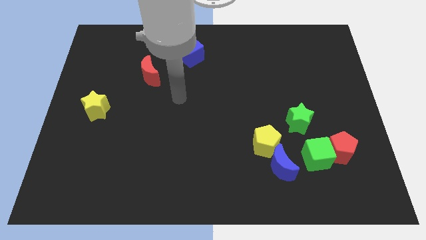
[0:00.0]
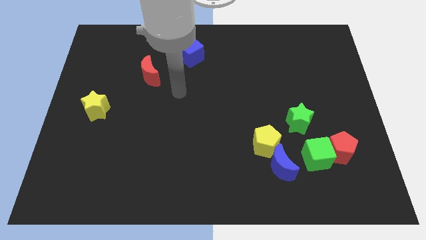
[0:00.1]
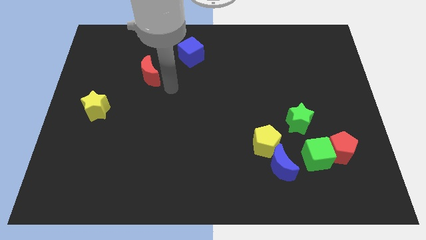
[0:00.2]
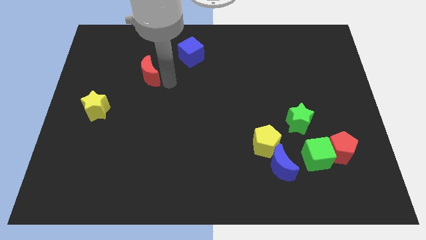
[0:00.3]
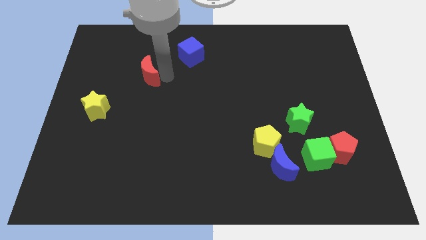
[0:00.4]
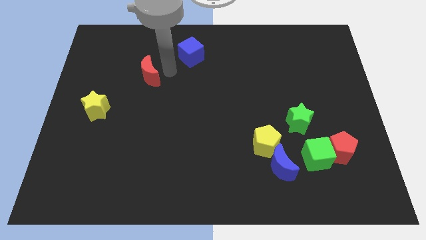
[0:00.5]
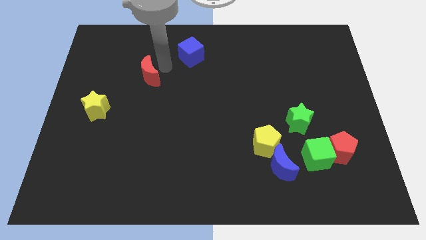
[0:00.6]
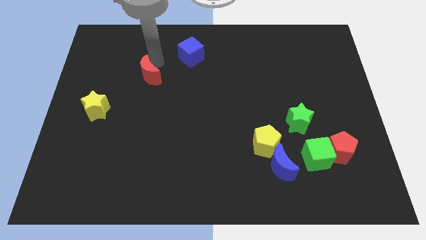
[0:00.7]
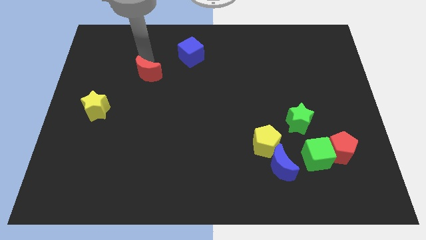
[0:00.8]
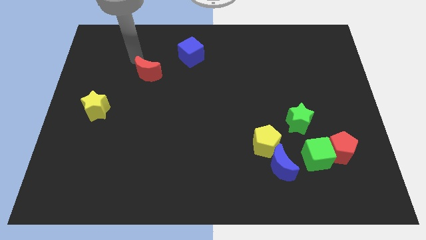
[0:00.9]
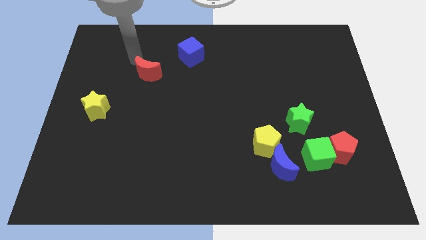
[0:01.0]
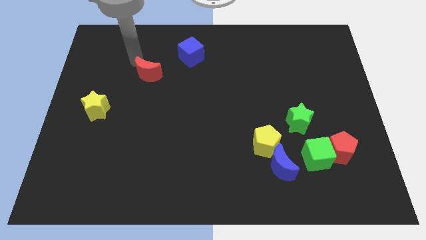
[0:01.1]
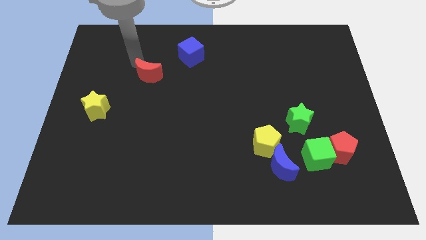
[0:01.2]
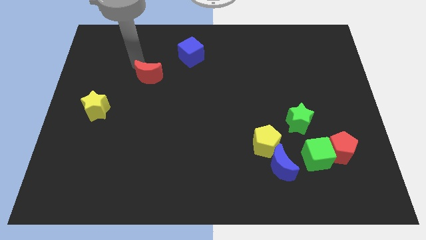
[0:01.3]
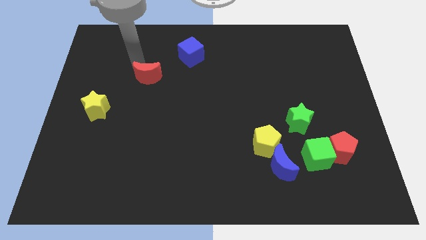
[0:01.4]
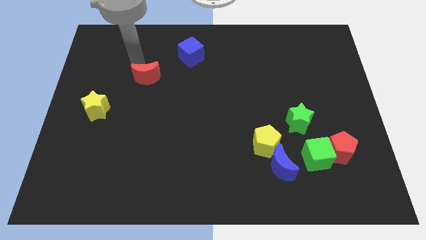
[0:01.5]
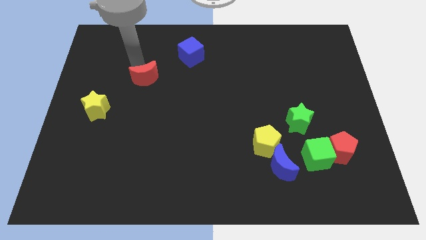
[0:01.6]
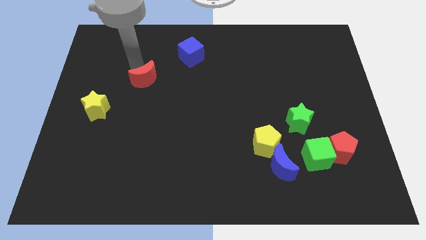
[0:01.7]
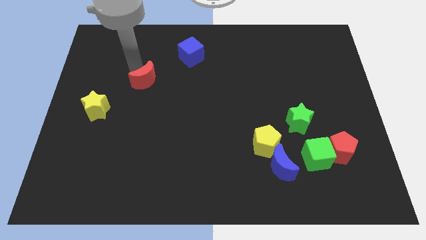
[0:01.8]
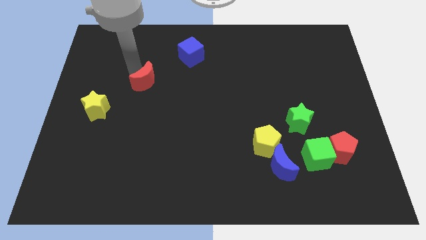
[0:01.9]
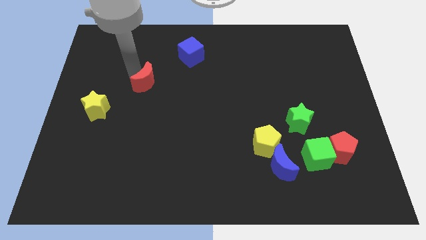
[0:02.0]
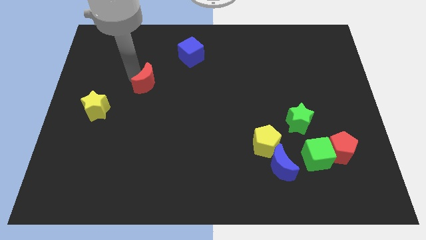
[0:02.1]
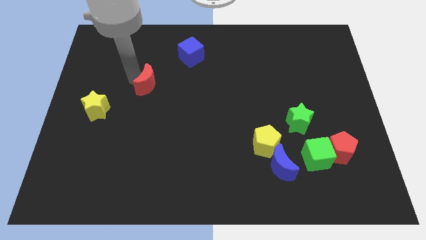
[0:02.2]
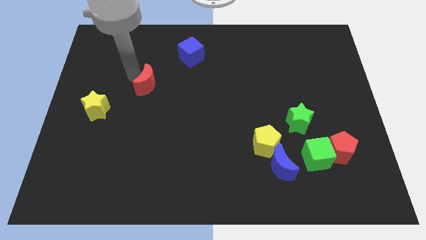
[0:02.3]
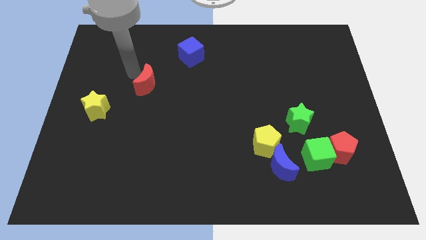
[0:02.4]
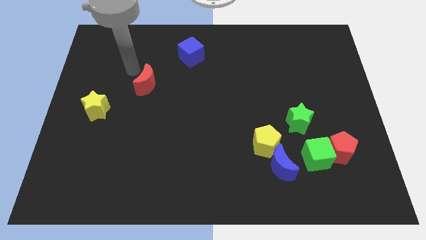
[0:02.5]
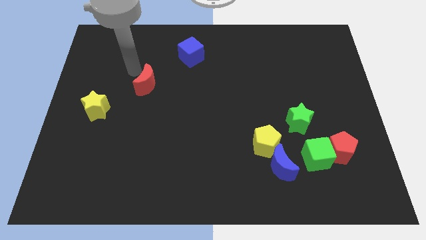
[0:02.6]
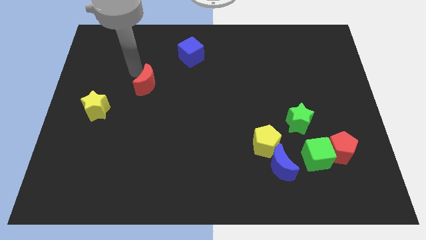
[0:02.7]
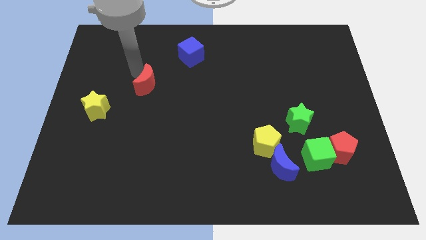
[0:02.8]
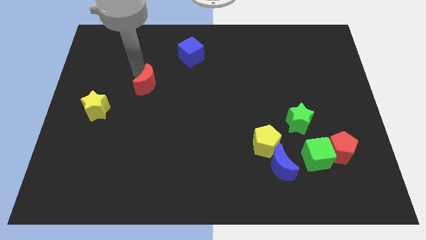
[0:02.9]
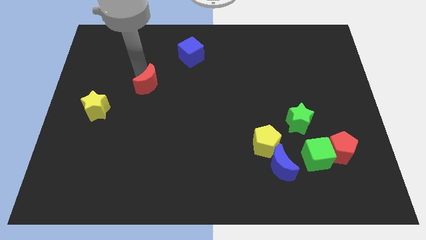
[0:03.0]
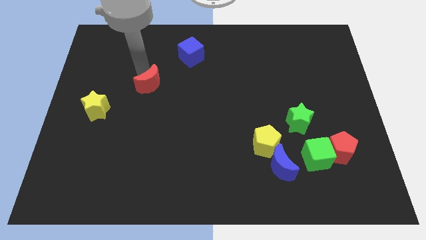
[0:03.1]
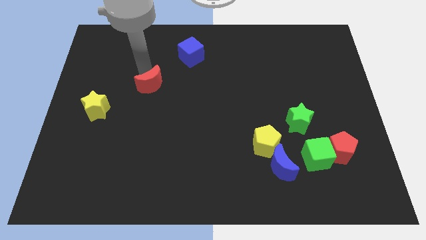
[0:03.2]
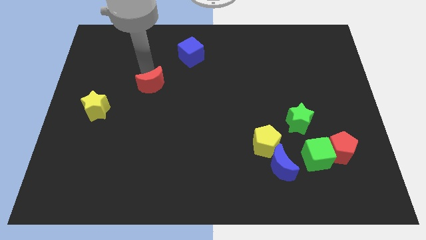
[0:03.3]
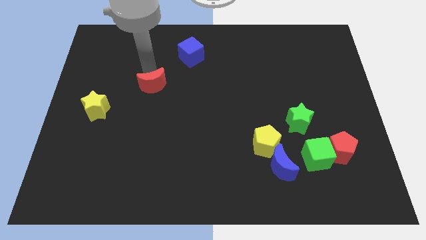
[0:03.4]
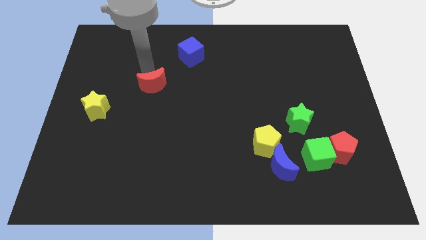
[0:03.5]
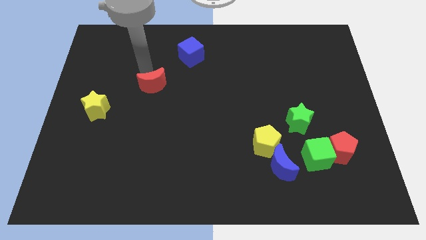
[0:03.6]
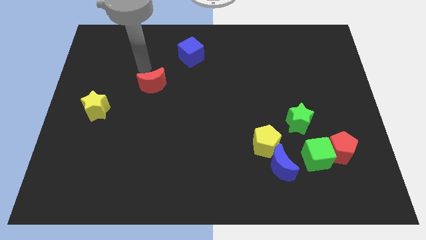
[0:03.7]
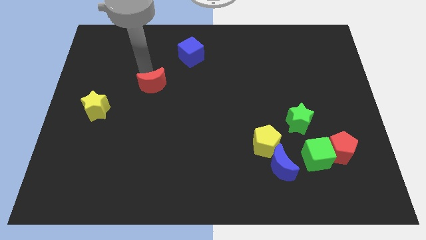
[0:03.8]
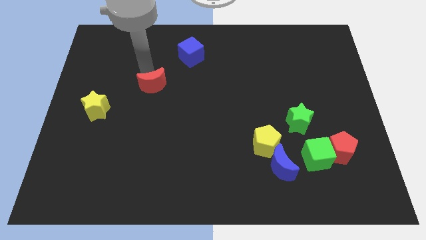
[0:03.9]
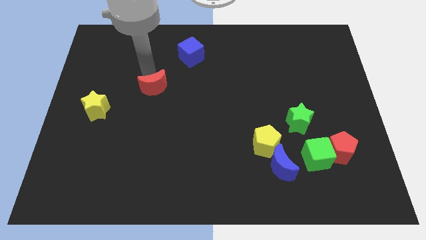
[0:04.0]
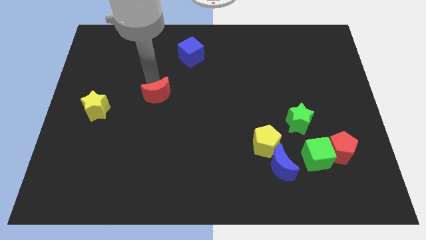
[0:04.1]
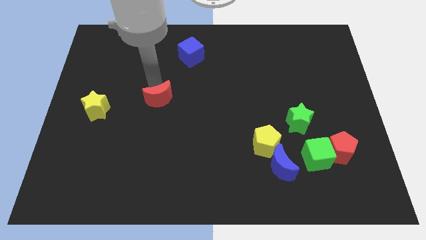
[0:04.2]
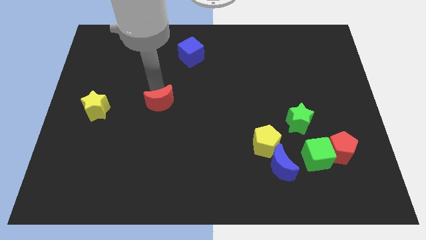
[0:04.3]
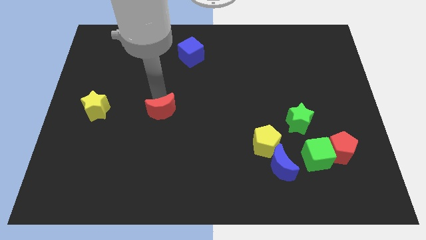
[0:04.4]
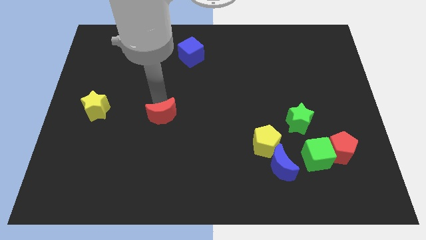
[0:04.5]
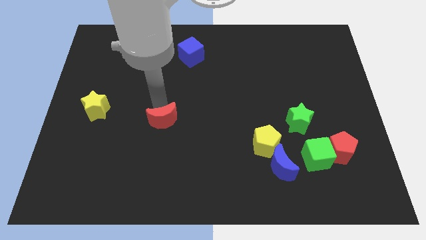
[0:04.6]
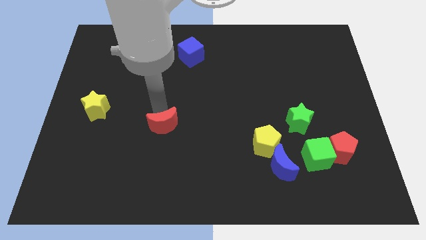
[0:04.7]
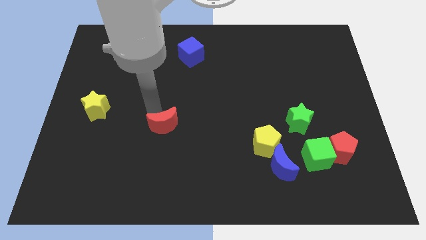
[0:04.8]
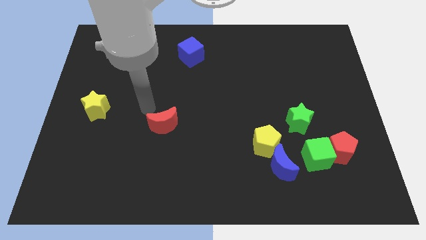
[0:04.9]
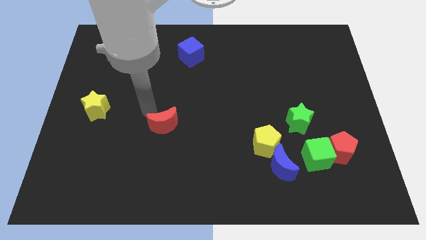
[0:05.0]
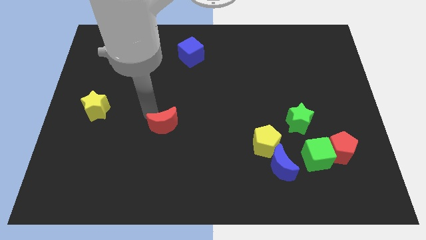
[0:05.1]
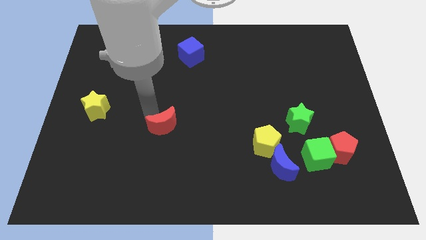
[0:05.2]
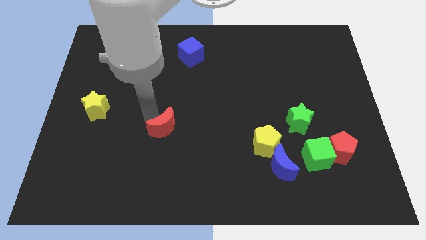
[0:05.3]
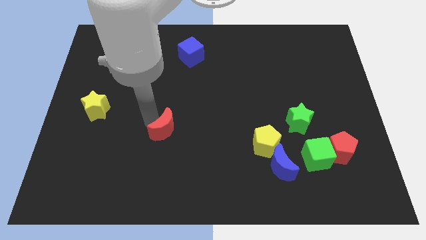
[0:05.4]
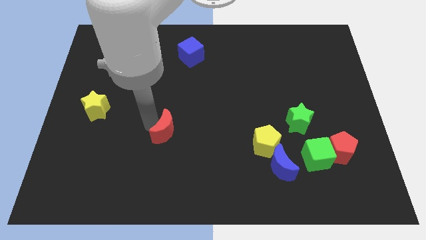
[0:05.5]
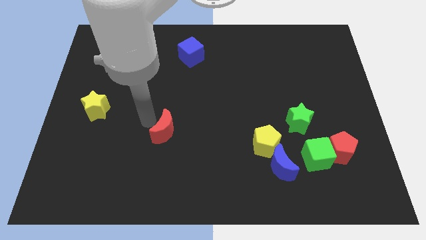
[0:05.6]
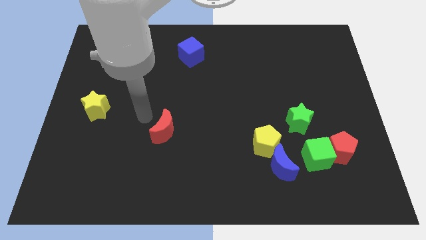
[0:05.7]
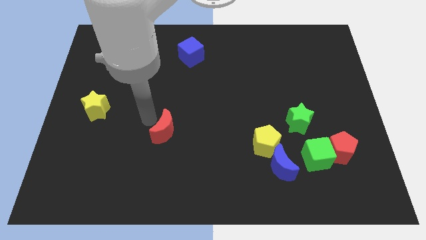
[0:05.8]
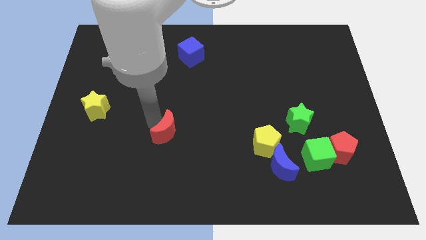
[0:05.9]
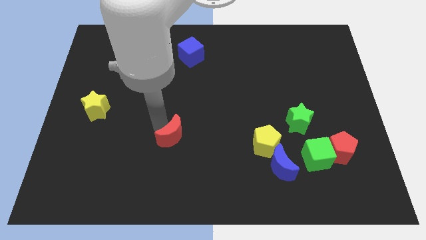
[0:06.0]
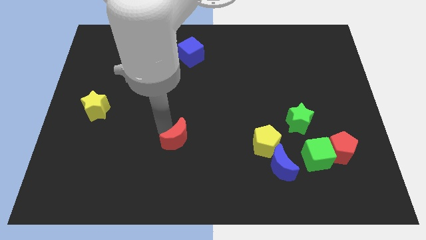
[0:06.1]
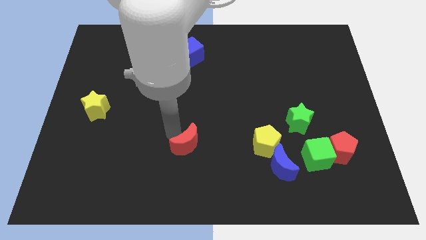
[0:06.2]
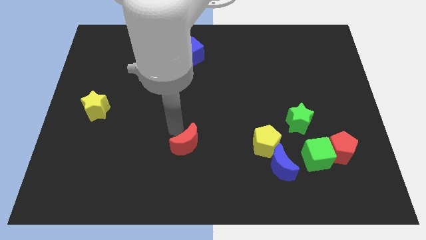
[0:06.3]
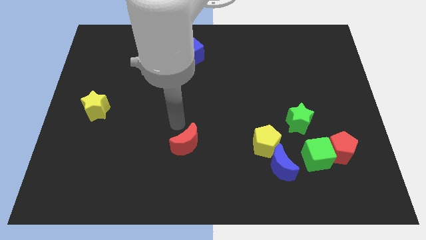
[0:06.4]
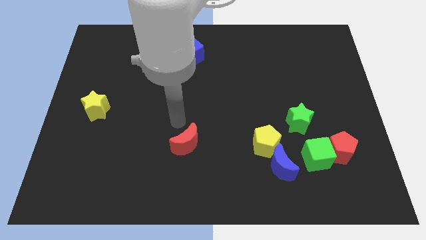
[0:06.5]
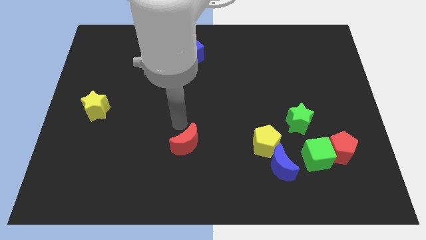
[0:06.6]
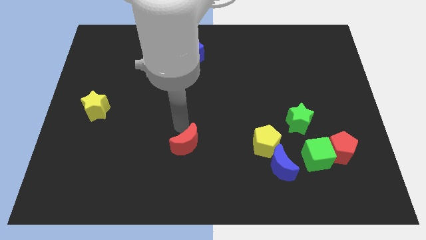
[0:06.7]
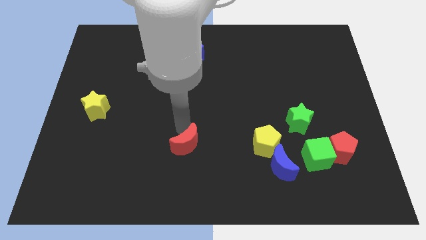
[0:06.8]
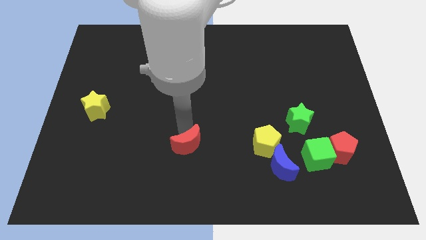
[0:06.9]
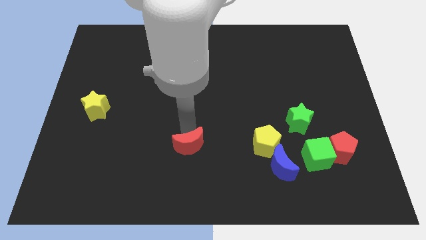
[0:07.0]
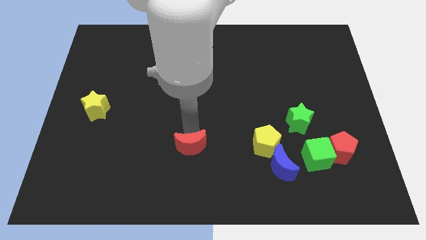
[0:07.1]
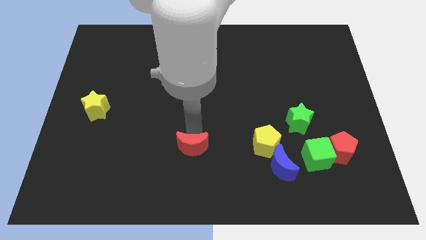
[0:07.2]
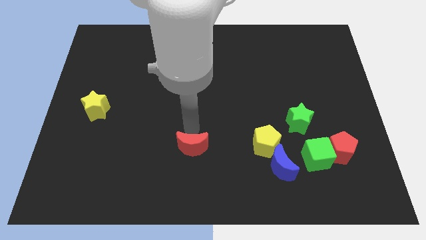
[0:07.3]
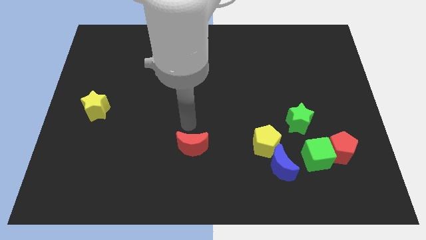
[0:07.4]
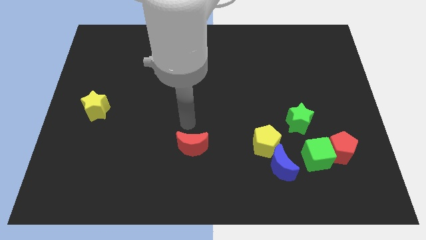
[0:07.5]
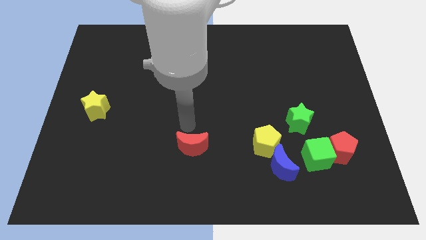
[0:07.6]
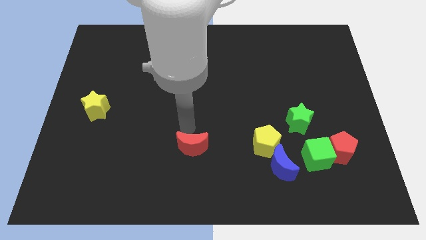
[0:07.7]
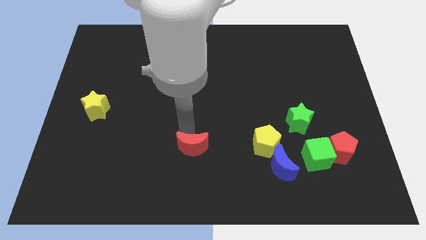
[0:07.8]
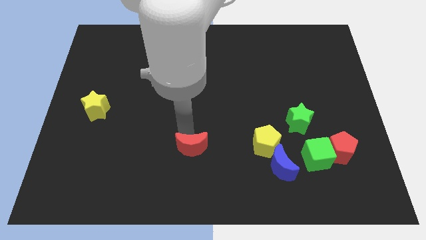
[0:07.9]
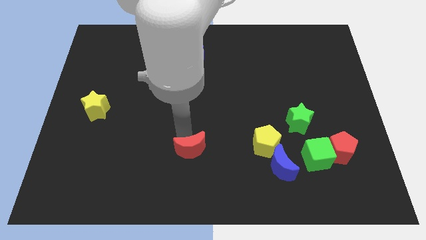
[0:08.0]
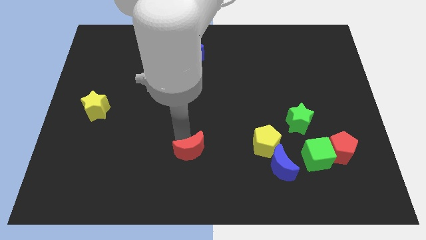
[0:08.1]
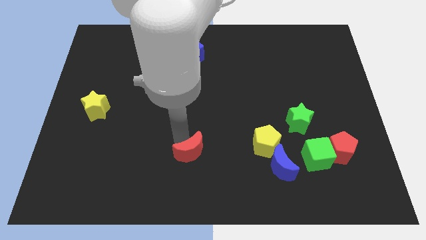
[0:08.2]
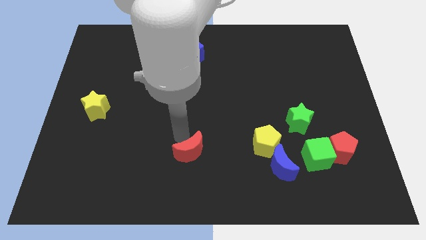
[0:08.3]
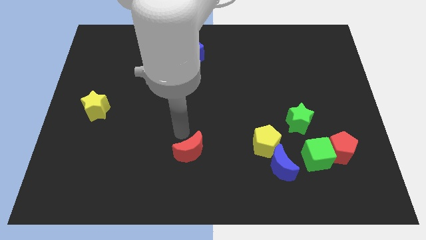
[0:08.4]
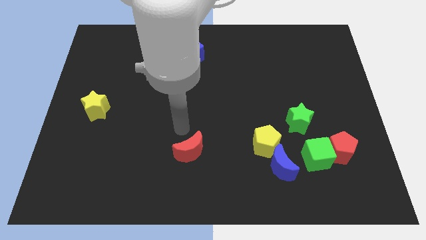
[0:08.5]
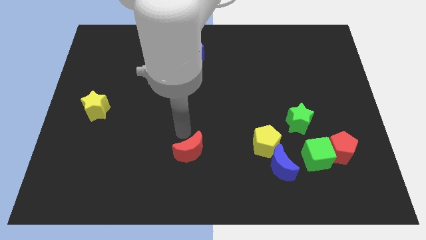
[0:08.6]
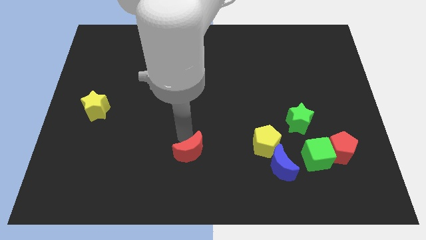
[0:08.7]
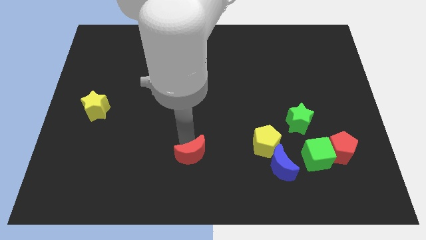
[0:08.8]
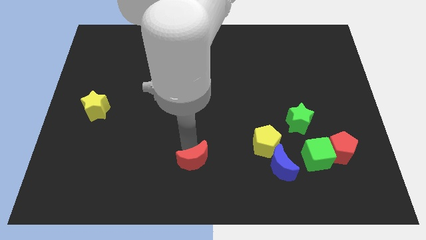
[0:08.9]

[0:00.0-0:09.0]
push the red moon to the bottom
